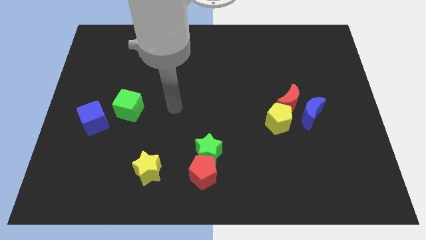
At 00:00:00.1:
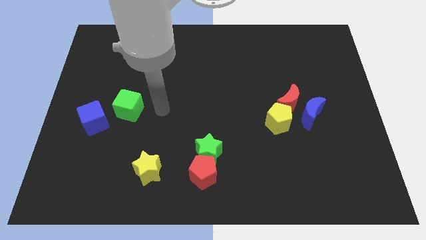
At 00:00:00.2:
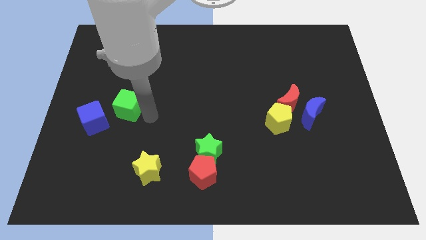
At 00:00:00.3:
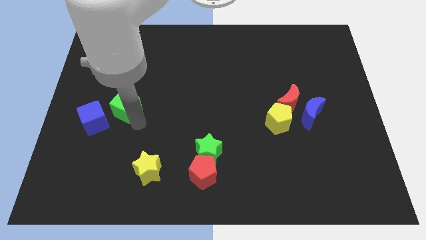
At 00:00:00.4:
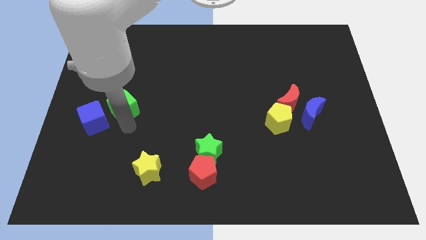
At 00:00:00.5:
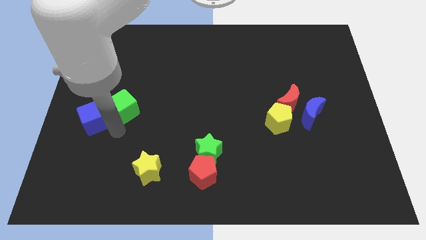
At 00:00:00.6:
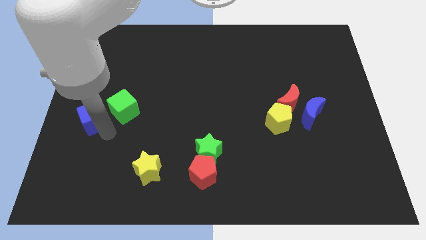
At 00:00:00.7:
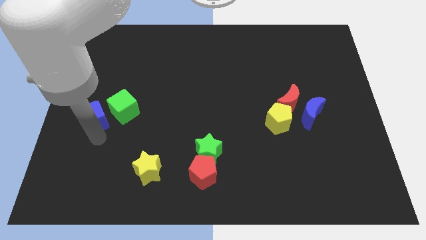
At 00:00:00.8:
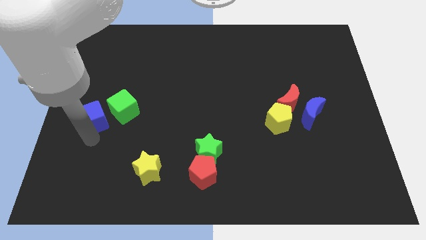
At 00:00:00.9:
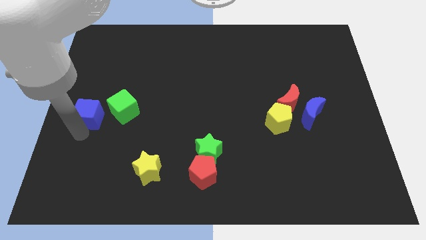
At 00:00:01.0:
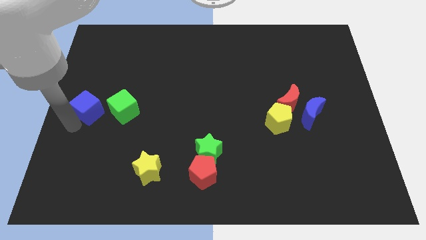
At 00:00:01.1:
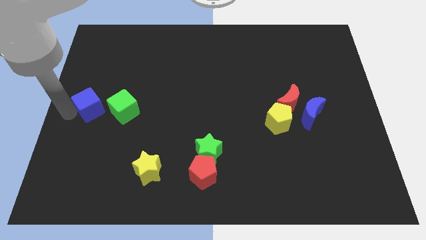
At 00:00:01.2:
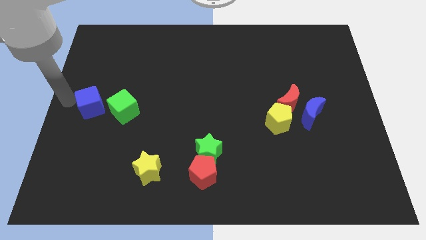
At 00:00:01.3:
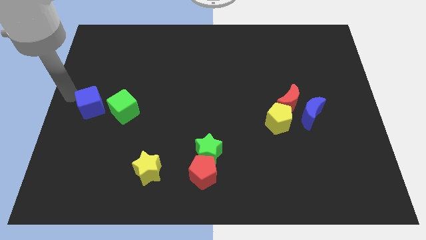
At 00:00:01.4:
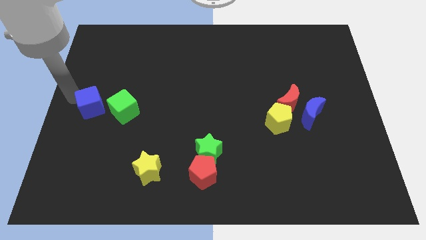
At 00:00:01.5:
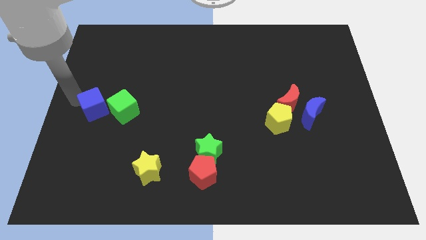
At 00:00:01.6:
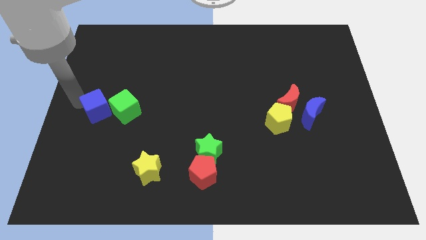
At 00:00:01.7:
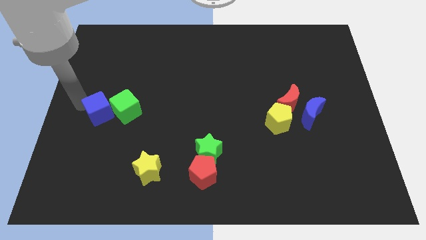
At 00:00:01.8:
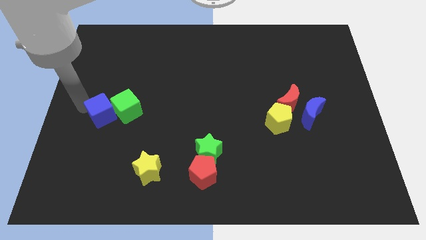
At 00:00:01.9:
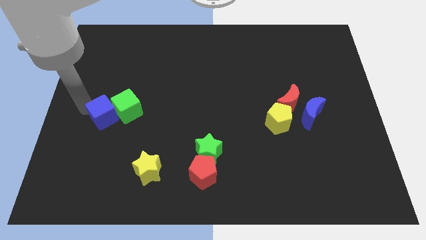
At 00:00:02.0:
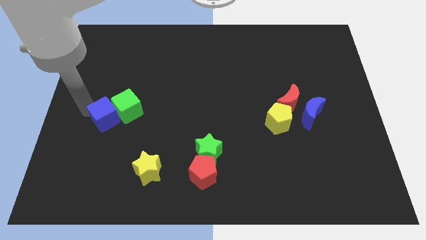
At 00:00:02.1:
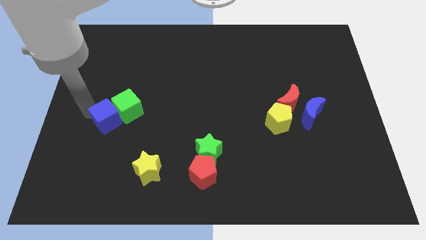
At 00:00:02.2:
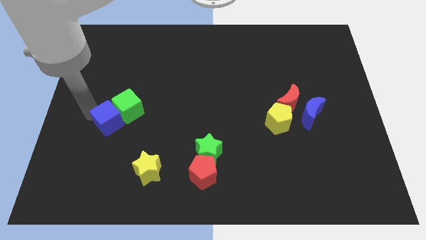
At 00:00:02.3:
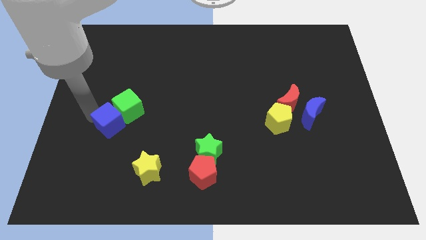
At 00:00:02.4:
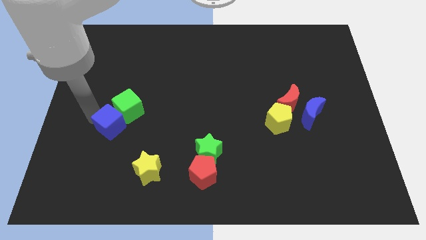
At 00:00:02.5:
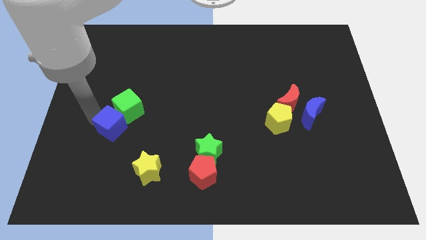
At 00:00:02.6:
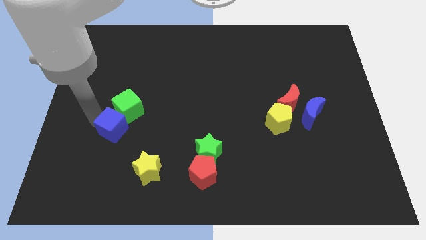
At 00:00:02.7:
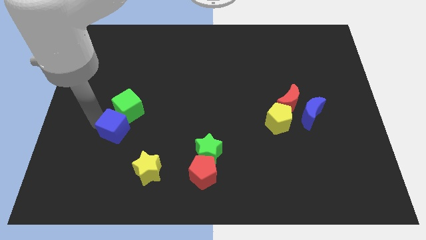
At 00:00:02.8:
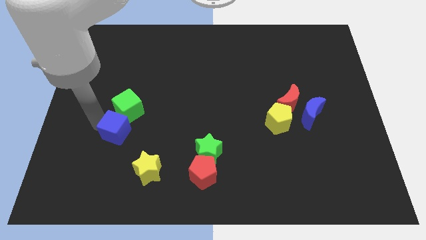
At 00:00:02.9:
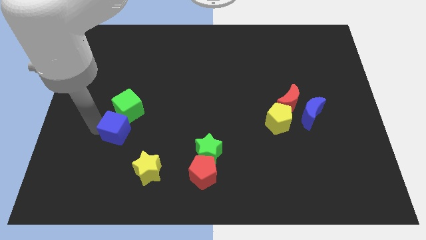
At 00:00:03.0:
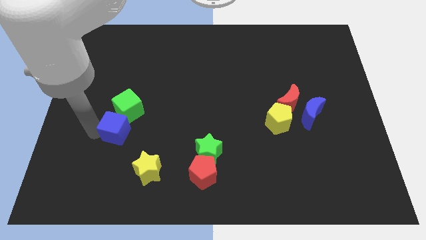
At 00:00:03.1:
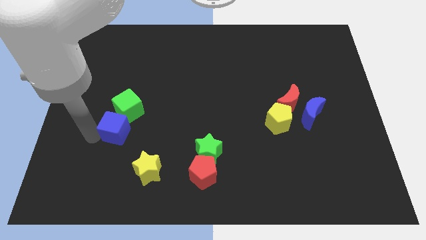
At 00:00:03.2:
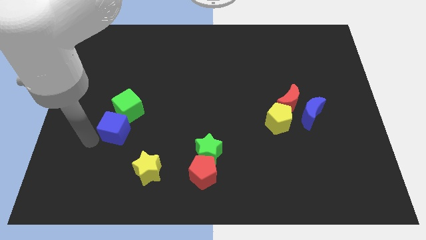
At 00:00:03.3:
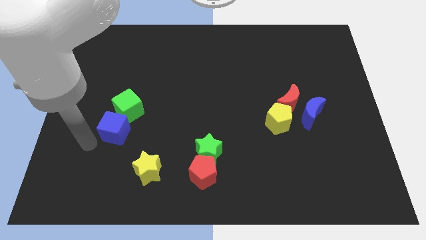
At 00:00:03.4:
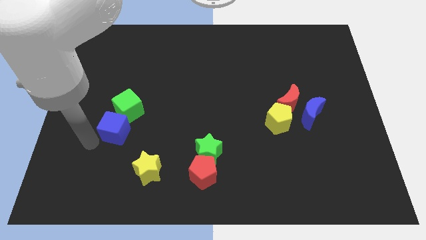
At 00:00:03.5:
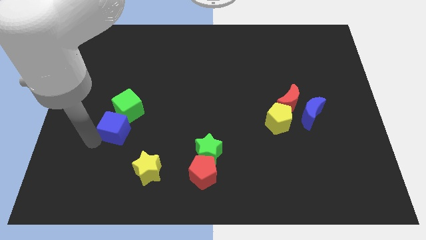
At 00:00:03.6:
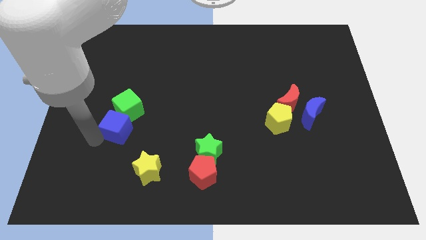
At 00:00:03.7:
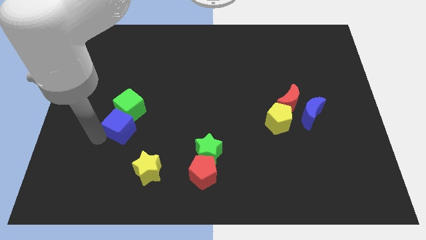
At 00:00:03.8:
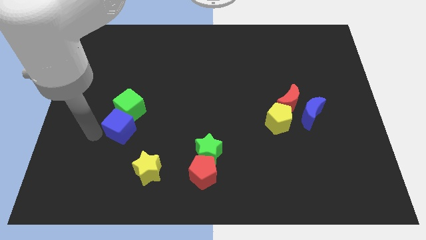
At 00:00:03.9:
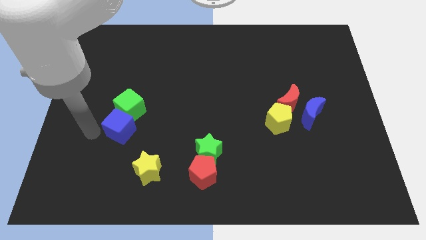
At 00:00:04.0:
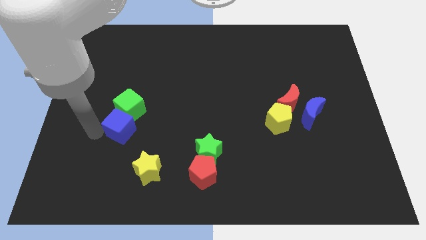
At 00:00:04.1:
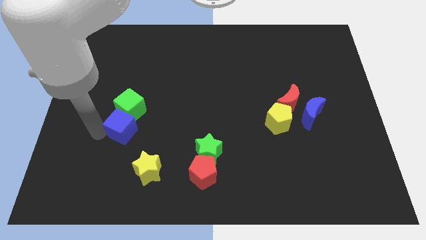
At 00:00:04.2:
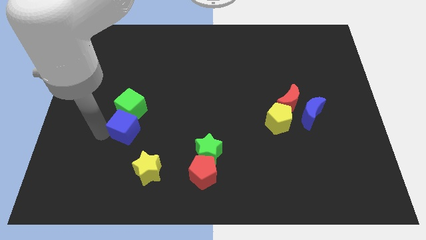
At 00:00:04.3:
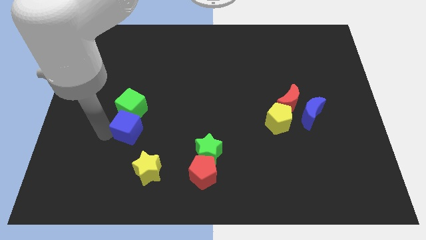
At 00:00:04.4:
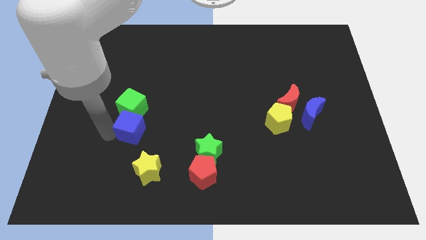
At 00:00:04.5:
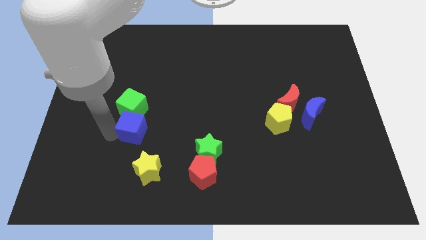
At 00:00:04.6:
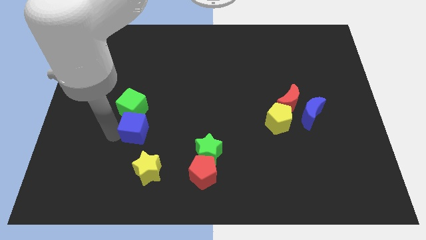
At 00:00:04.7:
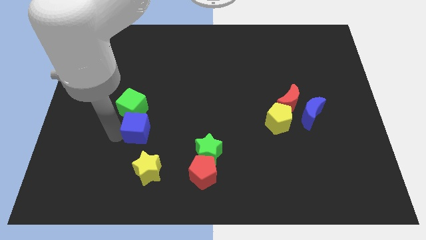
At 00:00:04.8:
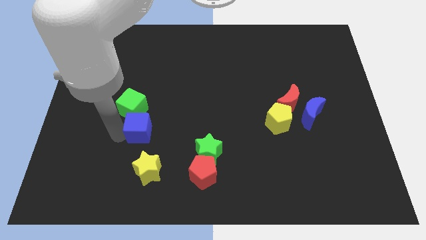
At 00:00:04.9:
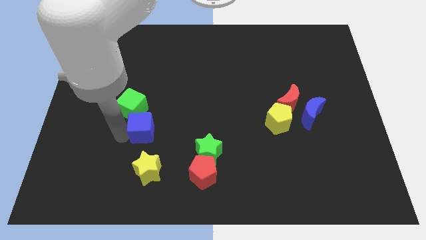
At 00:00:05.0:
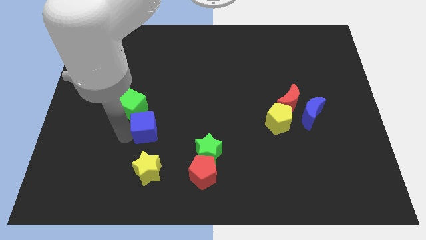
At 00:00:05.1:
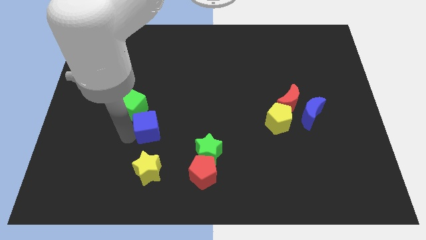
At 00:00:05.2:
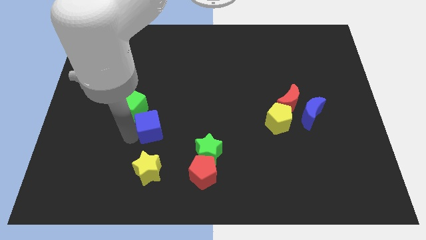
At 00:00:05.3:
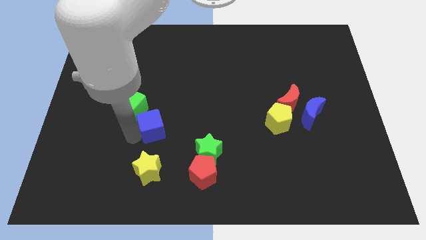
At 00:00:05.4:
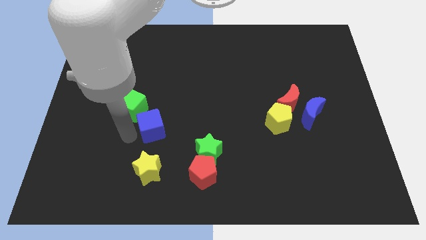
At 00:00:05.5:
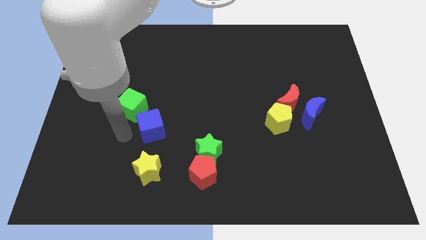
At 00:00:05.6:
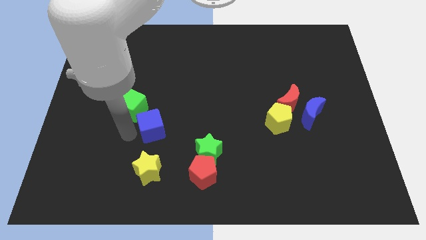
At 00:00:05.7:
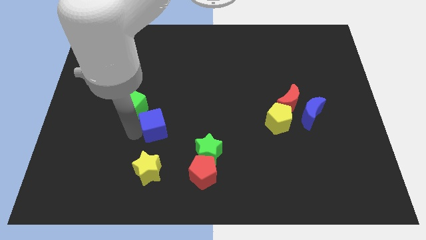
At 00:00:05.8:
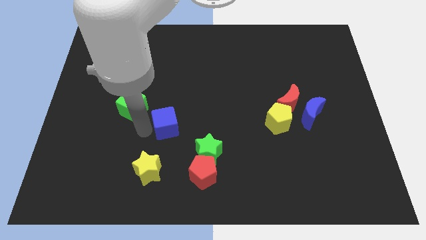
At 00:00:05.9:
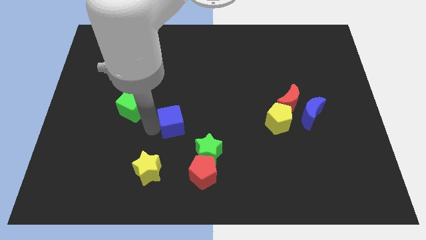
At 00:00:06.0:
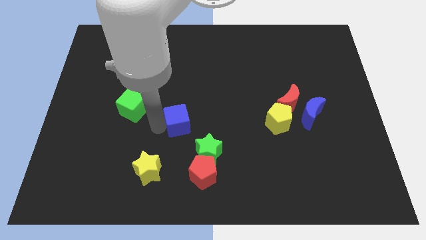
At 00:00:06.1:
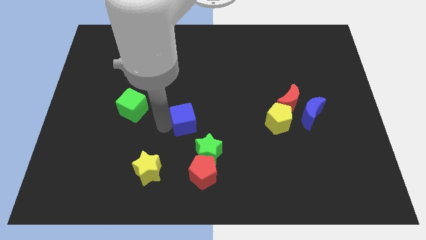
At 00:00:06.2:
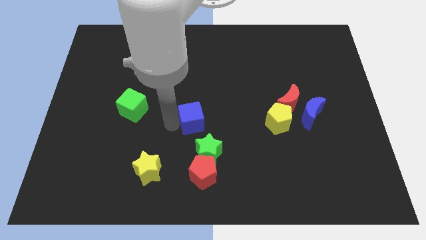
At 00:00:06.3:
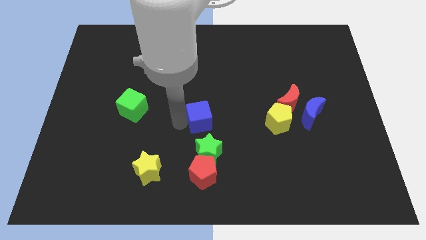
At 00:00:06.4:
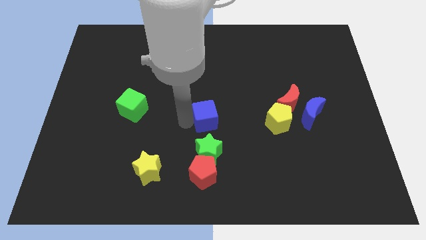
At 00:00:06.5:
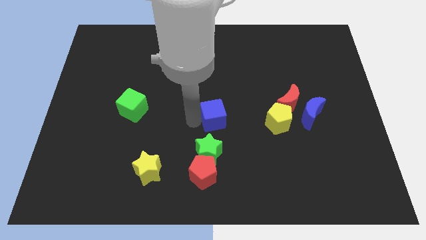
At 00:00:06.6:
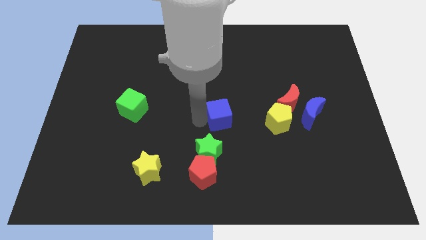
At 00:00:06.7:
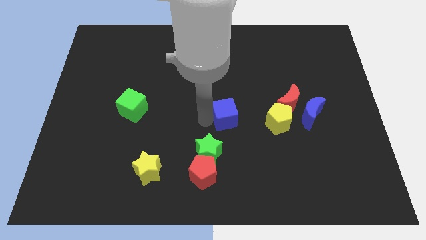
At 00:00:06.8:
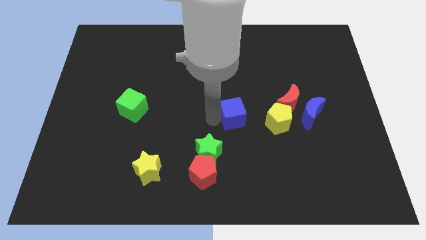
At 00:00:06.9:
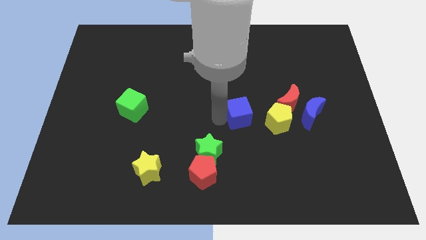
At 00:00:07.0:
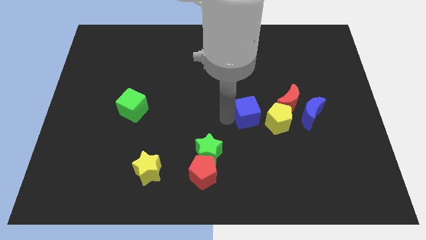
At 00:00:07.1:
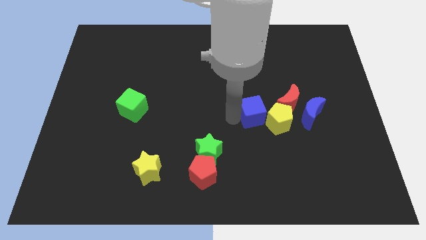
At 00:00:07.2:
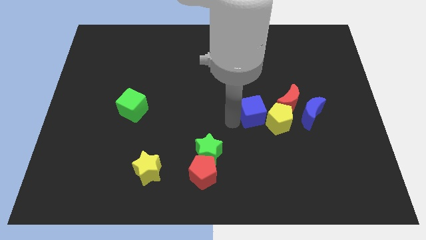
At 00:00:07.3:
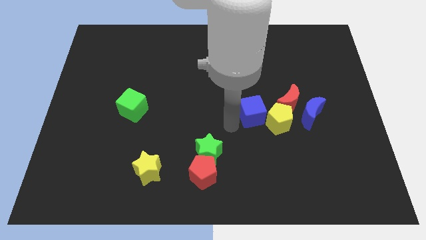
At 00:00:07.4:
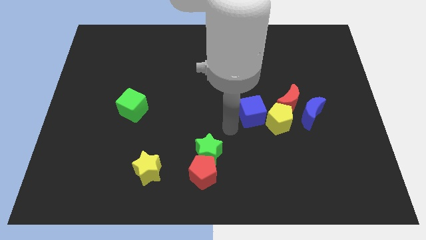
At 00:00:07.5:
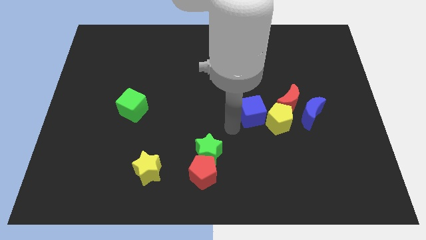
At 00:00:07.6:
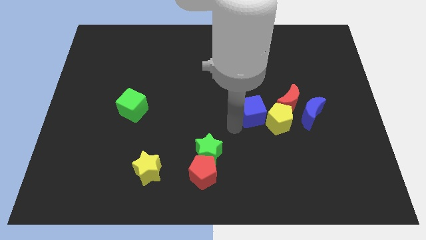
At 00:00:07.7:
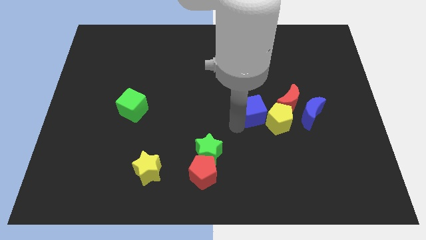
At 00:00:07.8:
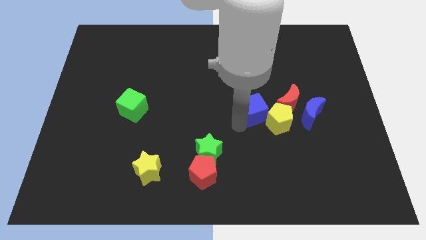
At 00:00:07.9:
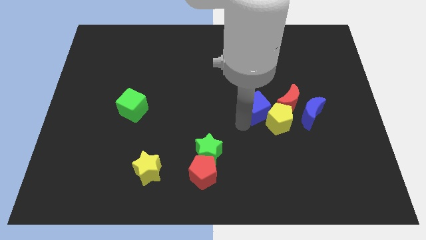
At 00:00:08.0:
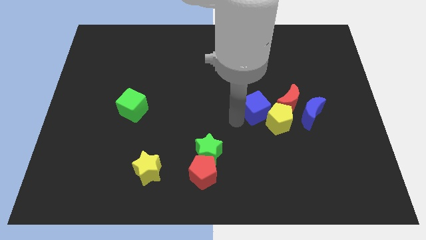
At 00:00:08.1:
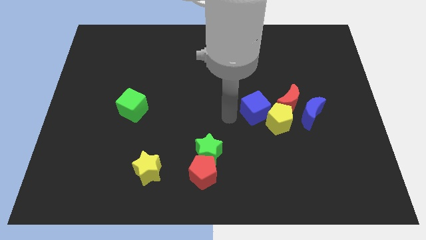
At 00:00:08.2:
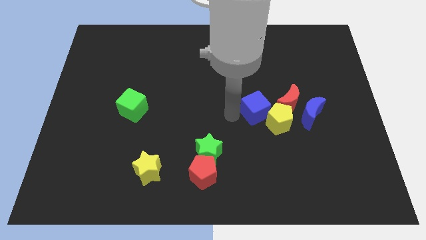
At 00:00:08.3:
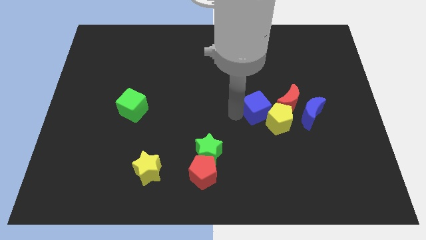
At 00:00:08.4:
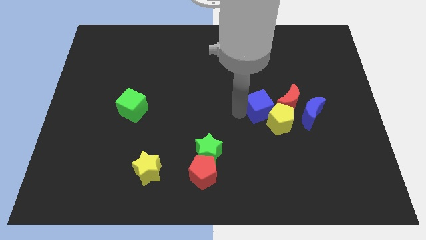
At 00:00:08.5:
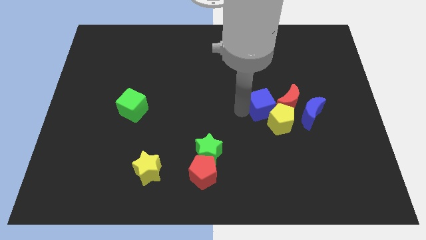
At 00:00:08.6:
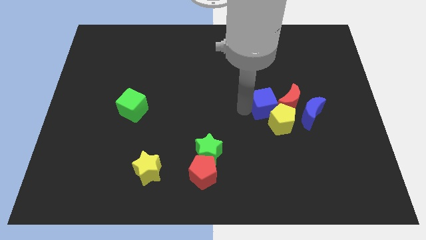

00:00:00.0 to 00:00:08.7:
slide the blue cube next to the red moon
